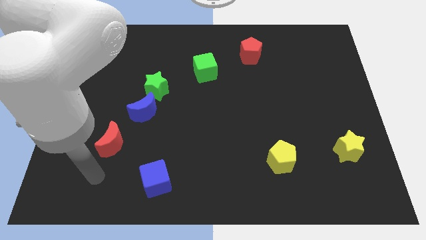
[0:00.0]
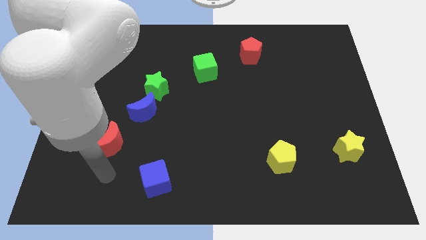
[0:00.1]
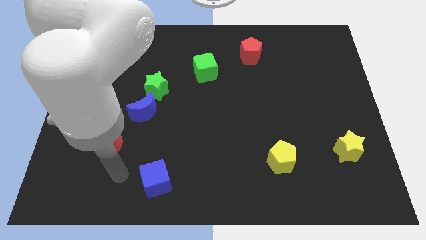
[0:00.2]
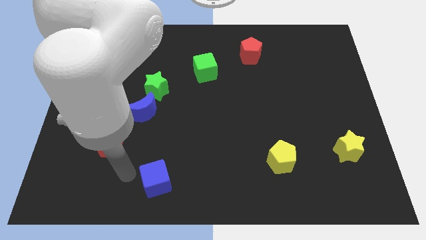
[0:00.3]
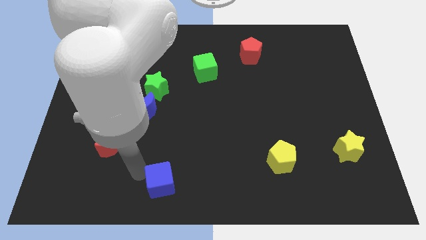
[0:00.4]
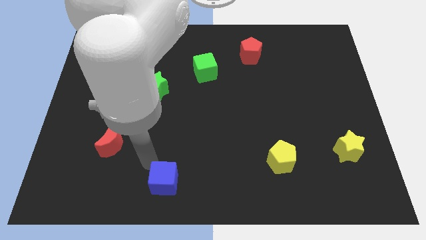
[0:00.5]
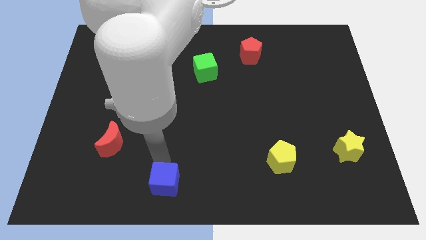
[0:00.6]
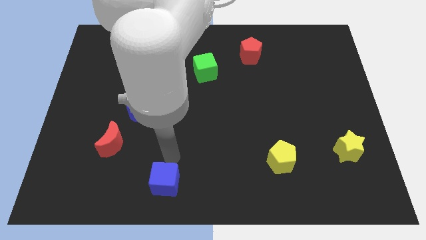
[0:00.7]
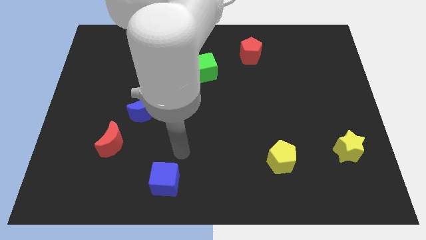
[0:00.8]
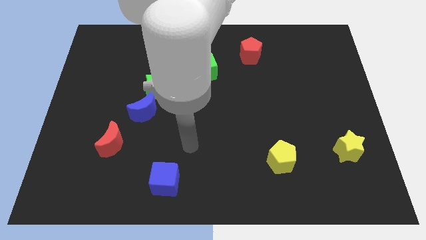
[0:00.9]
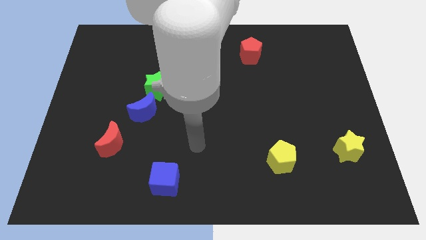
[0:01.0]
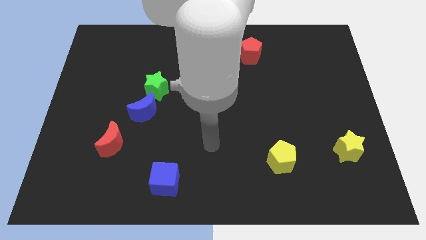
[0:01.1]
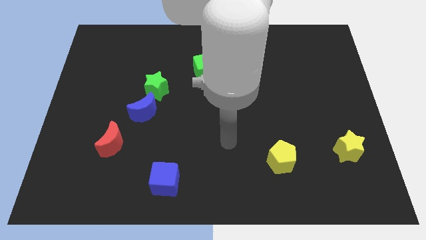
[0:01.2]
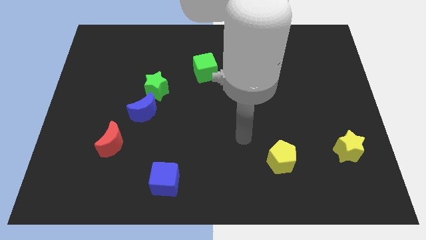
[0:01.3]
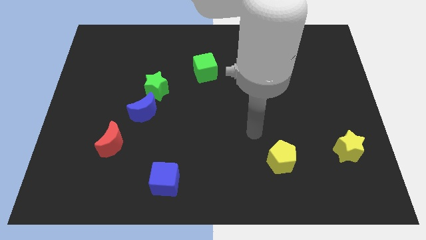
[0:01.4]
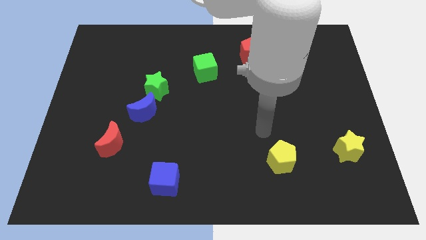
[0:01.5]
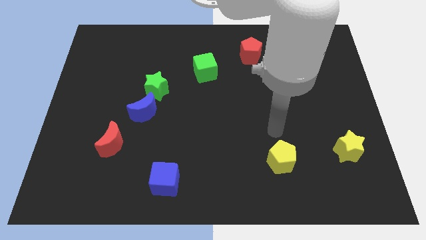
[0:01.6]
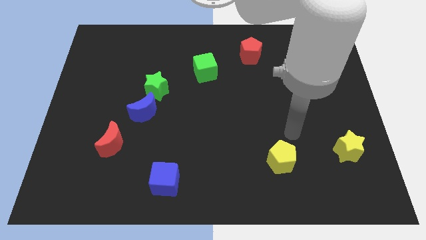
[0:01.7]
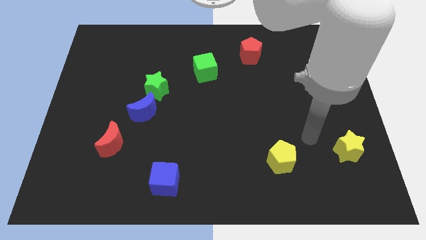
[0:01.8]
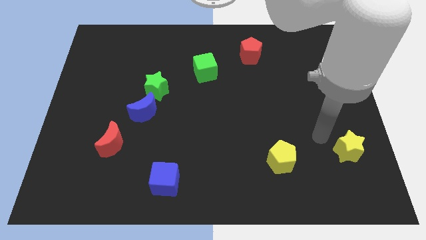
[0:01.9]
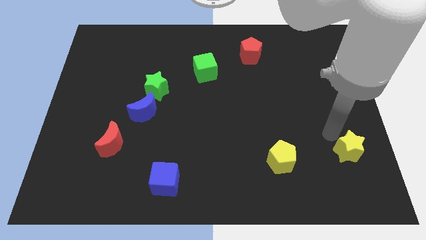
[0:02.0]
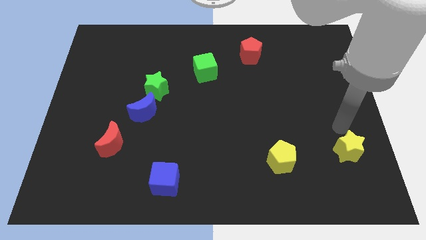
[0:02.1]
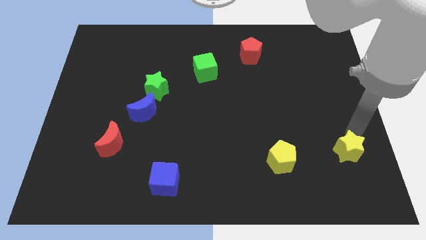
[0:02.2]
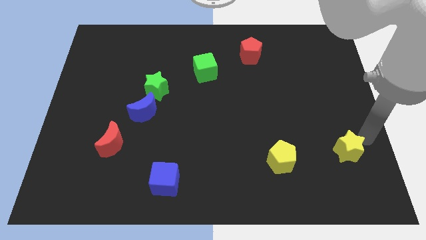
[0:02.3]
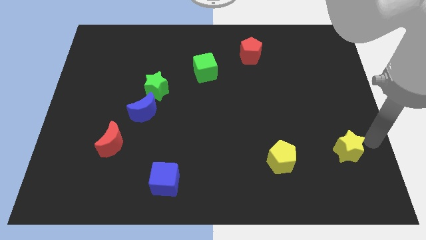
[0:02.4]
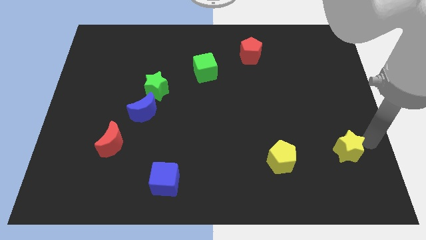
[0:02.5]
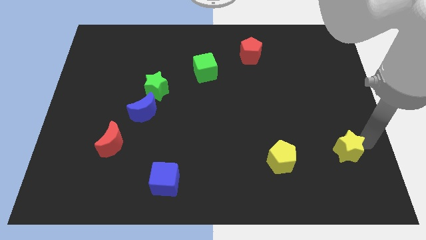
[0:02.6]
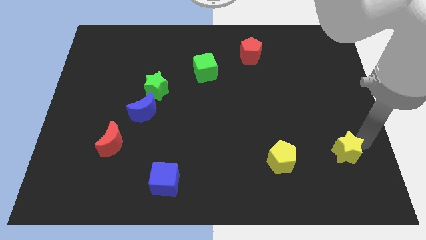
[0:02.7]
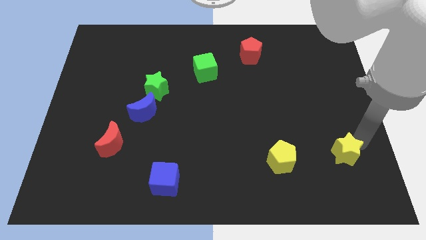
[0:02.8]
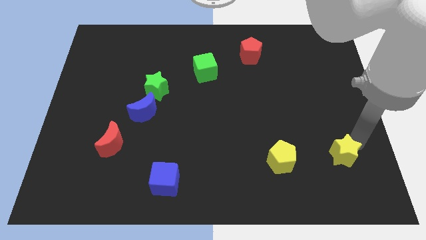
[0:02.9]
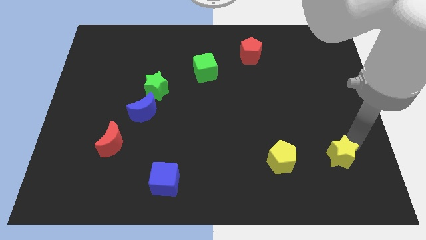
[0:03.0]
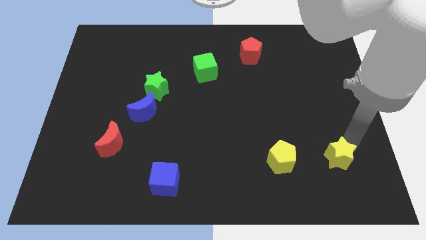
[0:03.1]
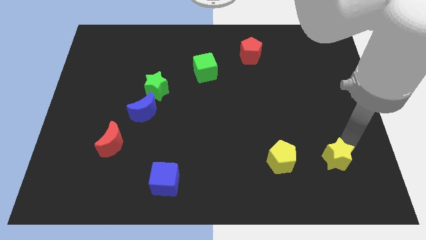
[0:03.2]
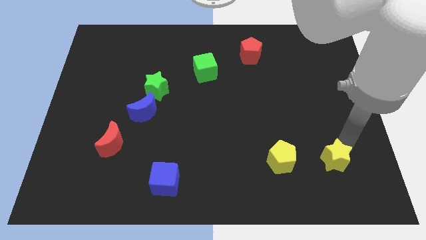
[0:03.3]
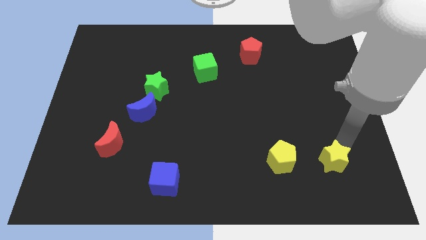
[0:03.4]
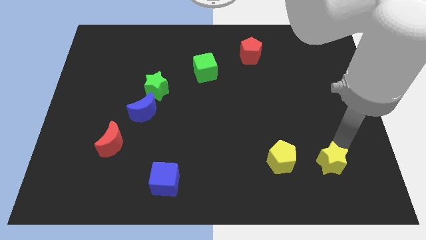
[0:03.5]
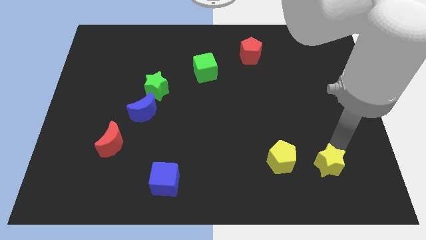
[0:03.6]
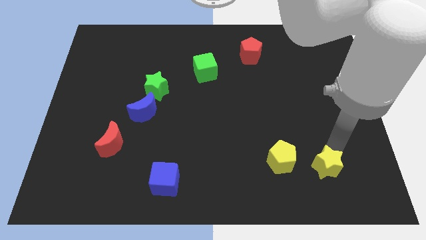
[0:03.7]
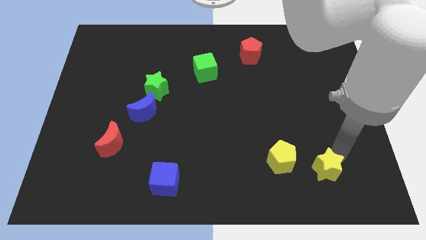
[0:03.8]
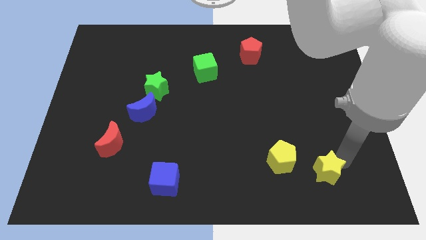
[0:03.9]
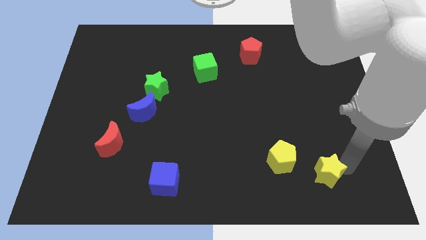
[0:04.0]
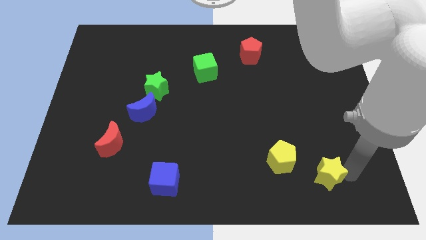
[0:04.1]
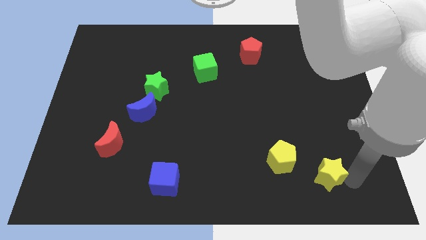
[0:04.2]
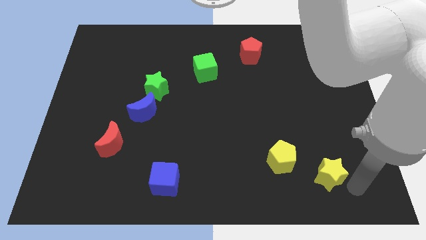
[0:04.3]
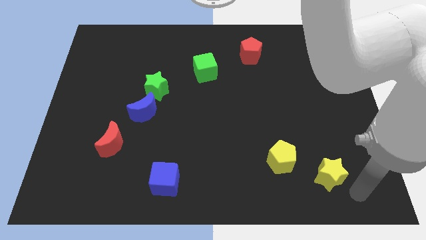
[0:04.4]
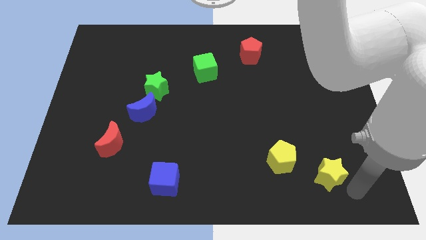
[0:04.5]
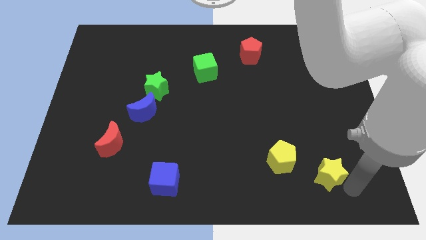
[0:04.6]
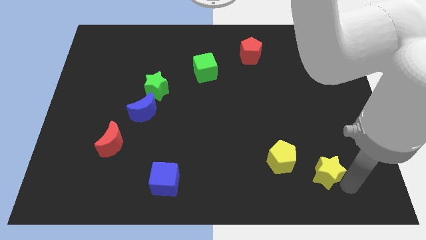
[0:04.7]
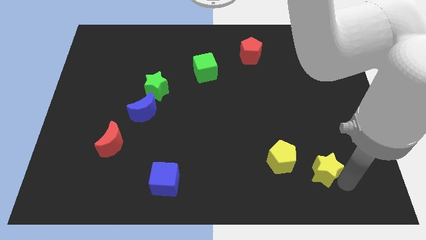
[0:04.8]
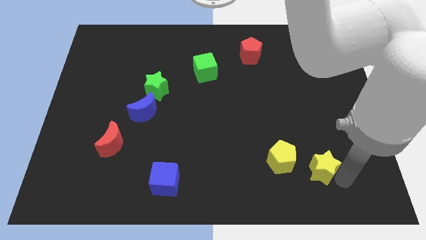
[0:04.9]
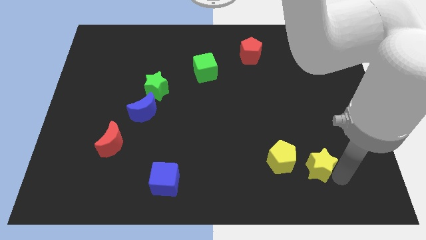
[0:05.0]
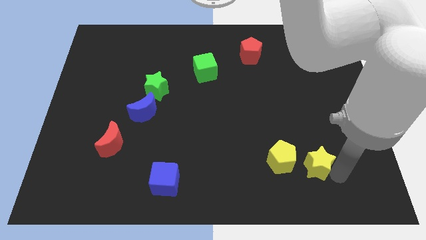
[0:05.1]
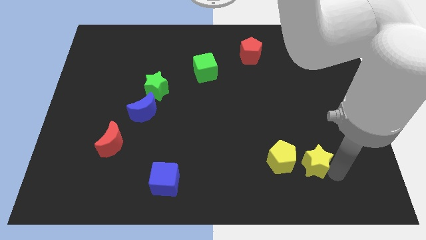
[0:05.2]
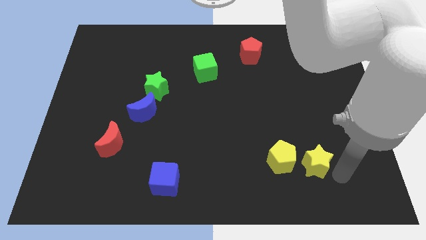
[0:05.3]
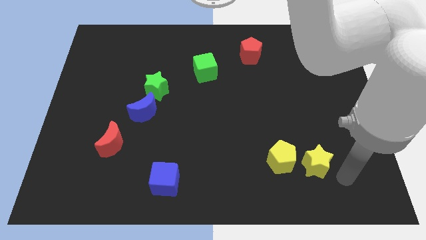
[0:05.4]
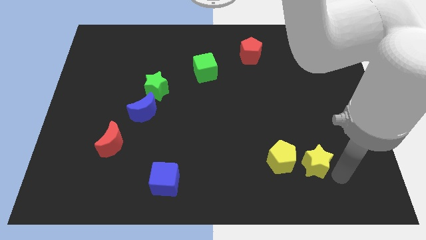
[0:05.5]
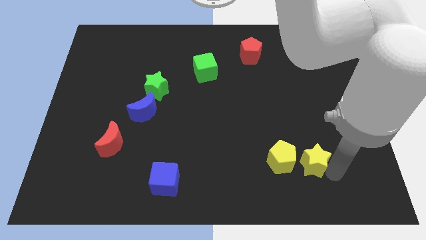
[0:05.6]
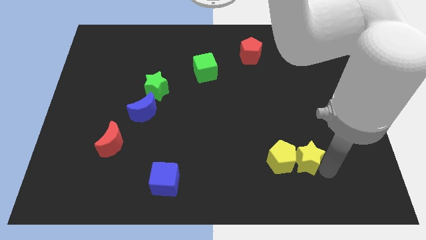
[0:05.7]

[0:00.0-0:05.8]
slide the yellow star towards the yellow pentagon

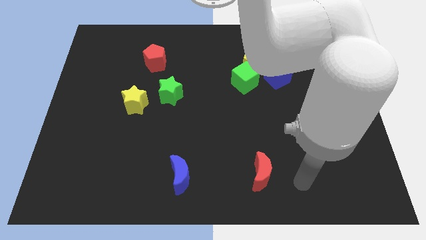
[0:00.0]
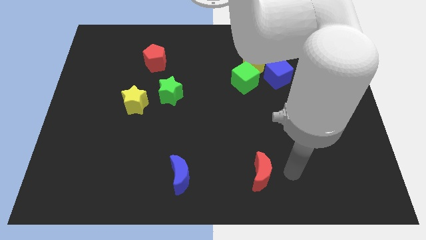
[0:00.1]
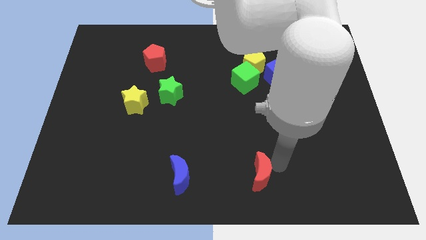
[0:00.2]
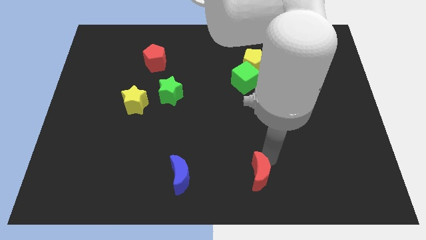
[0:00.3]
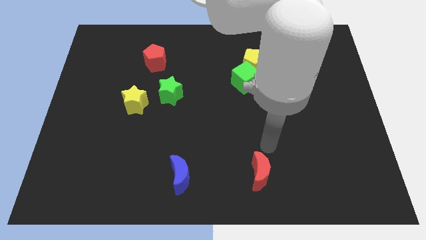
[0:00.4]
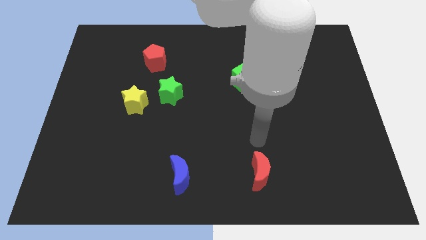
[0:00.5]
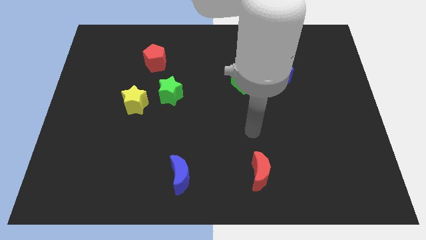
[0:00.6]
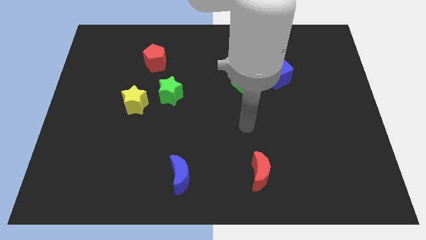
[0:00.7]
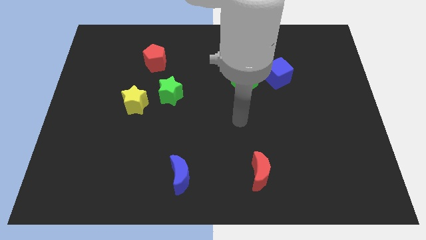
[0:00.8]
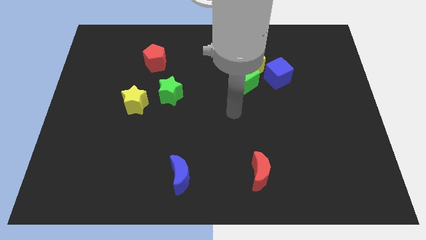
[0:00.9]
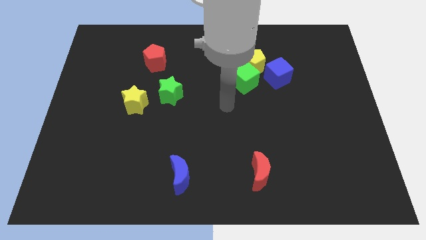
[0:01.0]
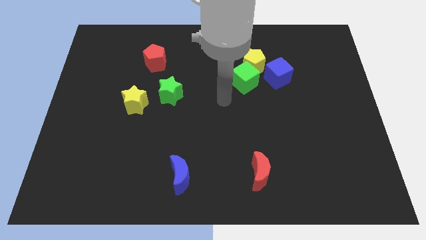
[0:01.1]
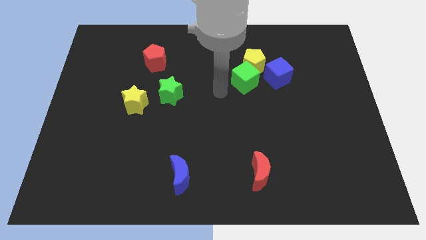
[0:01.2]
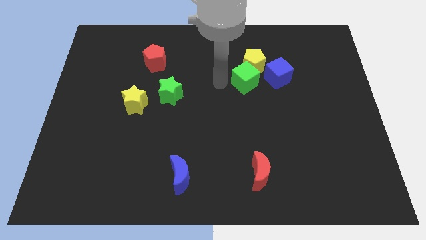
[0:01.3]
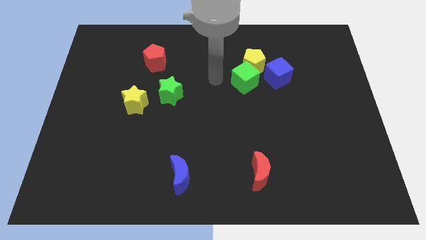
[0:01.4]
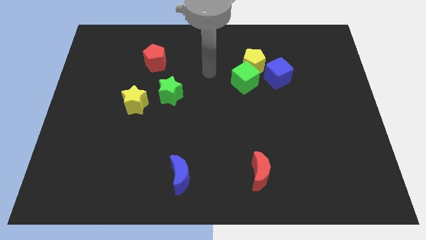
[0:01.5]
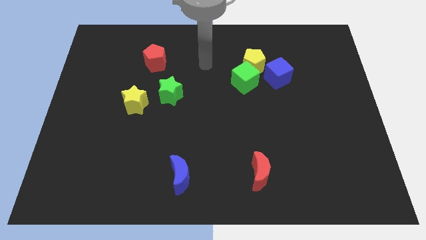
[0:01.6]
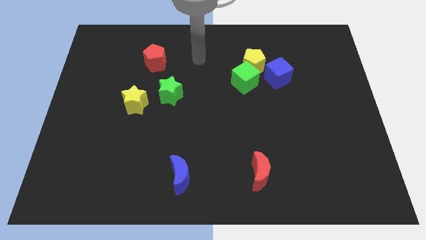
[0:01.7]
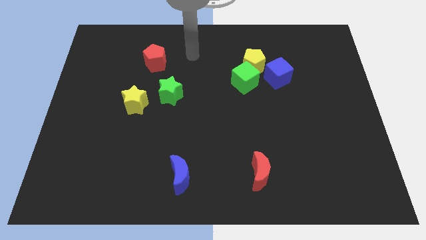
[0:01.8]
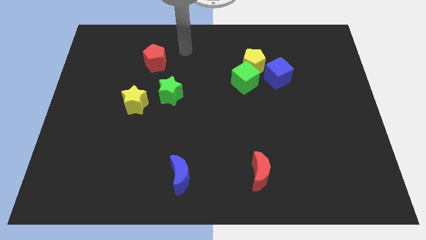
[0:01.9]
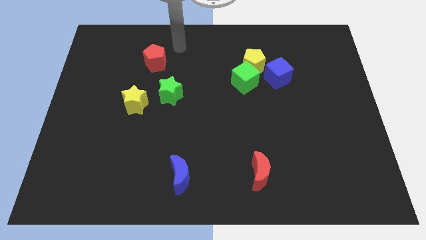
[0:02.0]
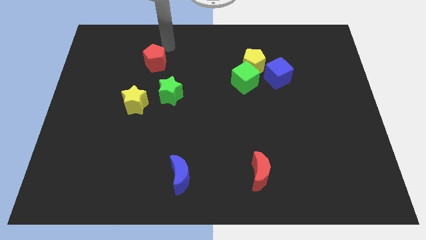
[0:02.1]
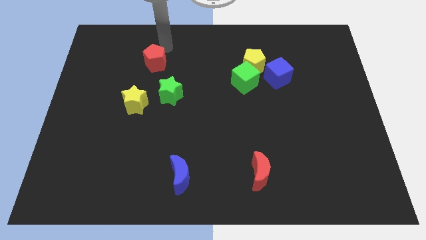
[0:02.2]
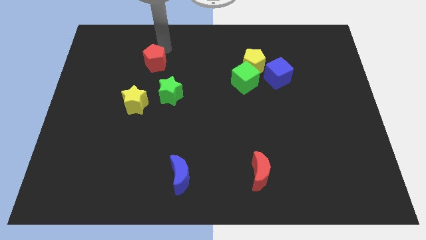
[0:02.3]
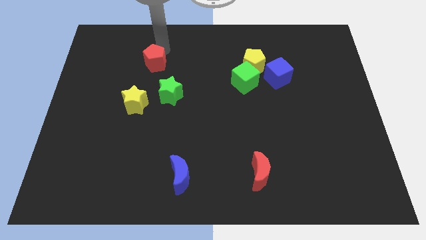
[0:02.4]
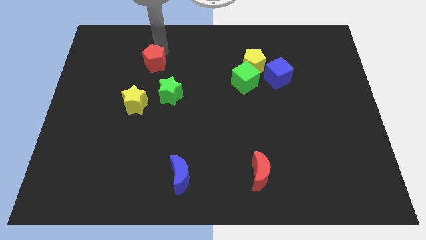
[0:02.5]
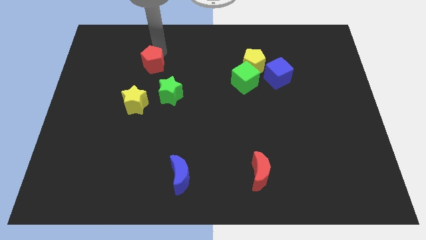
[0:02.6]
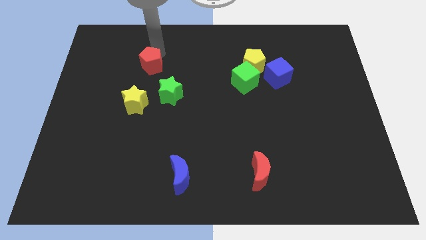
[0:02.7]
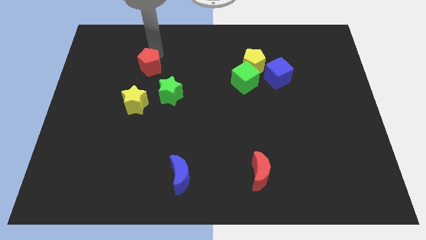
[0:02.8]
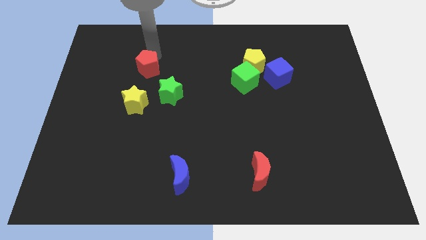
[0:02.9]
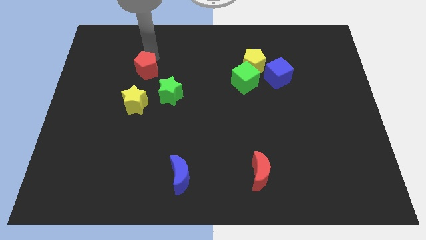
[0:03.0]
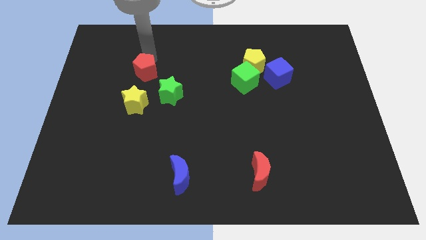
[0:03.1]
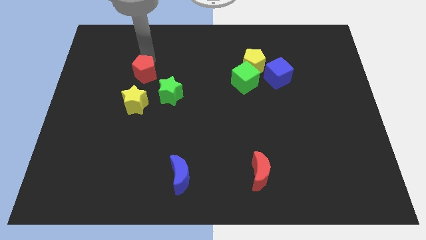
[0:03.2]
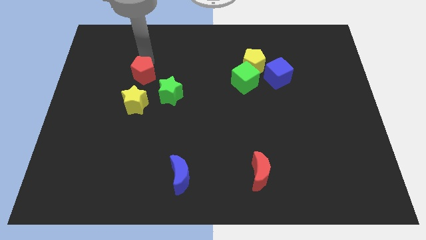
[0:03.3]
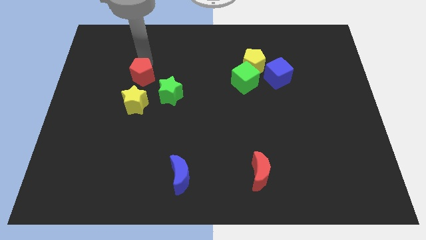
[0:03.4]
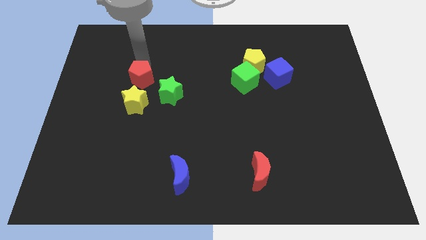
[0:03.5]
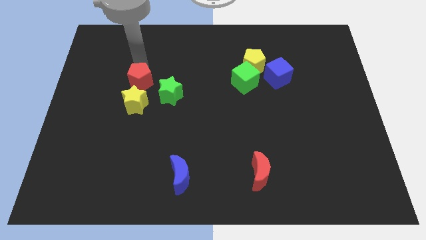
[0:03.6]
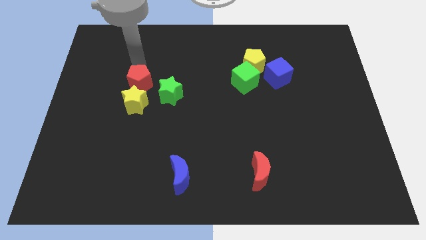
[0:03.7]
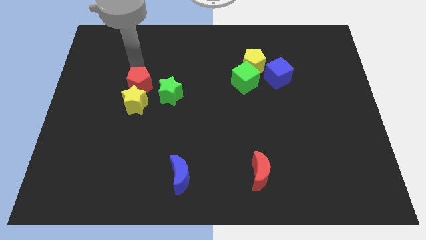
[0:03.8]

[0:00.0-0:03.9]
push the red pentagon to the yellow star
